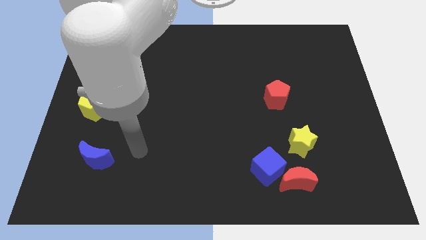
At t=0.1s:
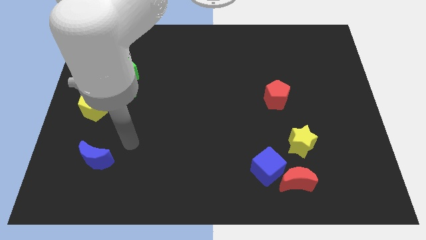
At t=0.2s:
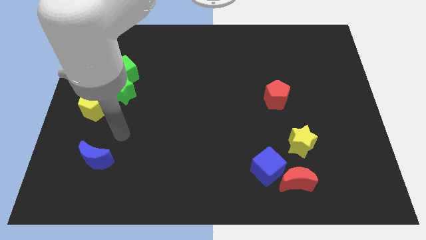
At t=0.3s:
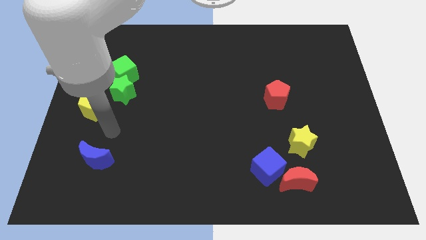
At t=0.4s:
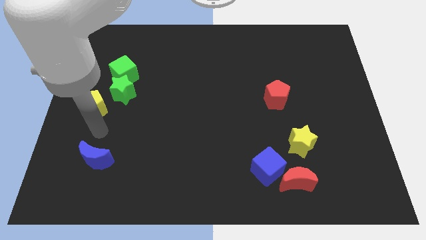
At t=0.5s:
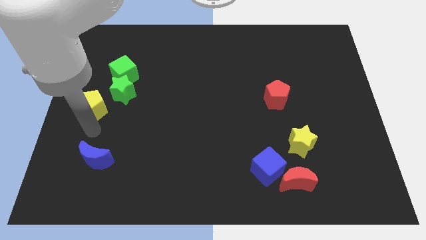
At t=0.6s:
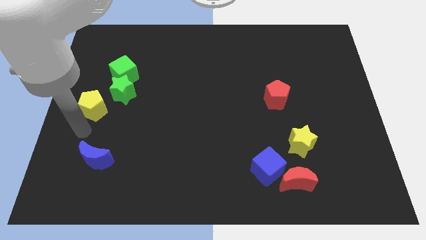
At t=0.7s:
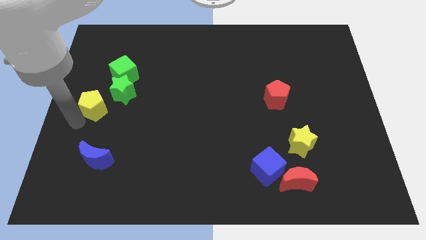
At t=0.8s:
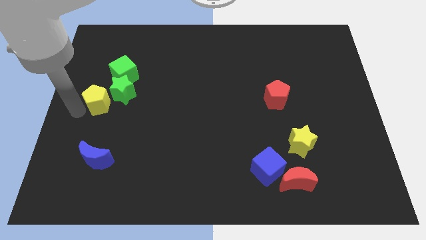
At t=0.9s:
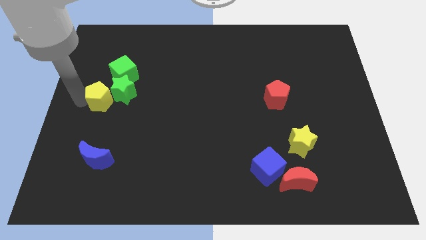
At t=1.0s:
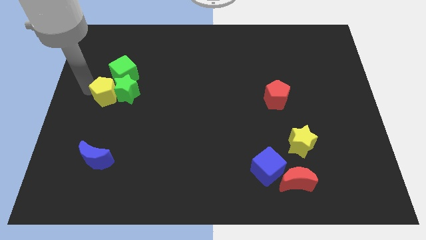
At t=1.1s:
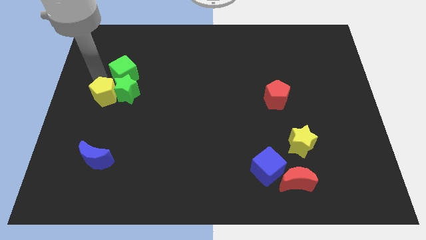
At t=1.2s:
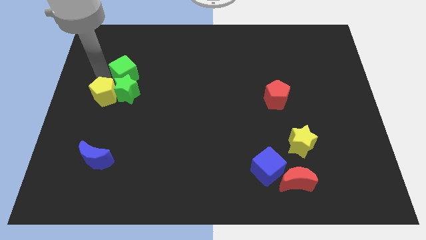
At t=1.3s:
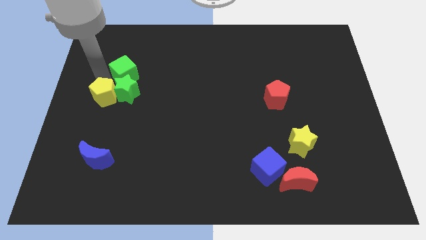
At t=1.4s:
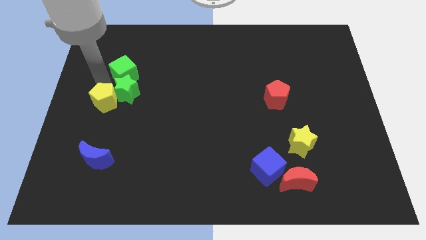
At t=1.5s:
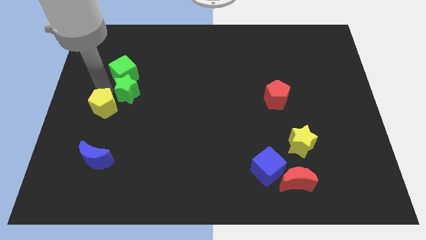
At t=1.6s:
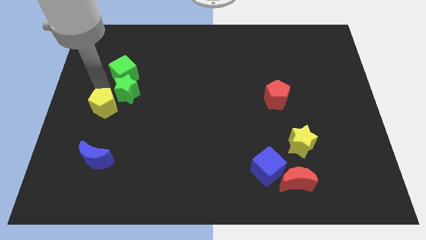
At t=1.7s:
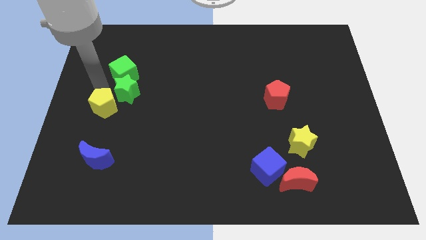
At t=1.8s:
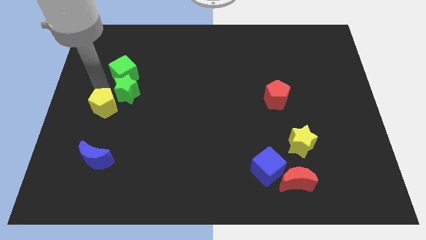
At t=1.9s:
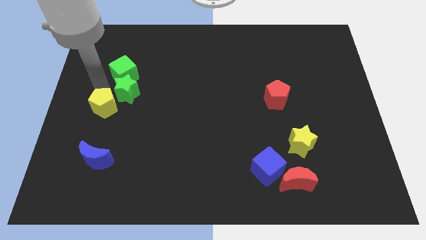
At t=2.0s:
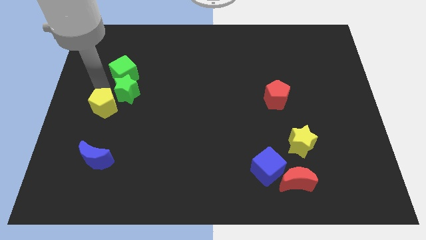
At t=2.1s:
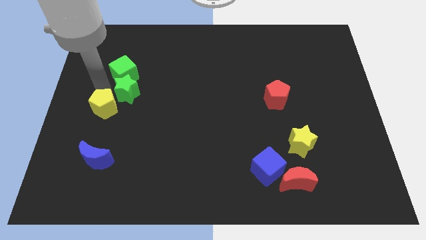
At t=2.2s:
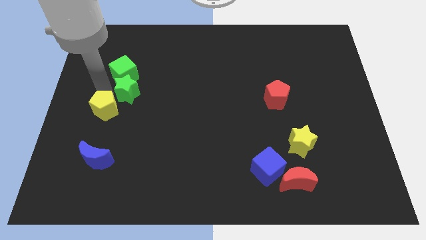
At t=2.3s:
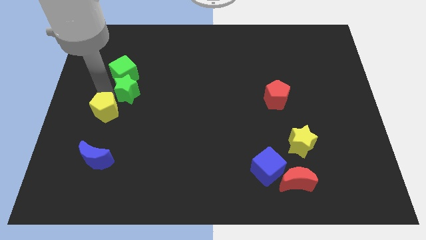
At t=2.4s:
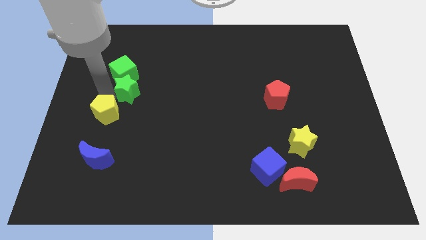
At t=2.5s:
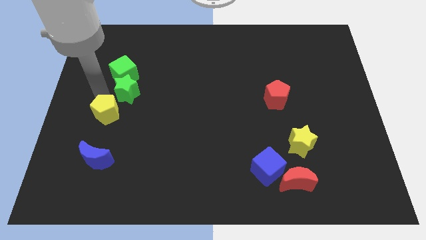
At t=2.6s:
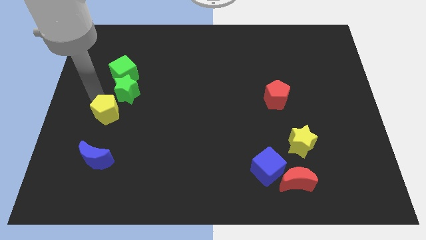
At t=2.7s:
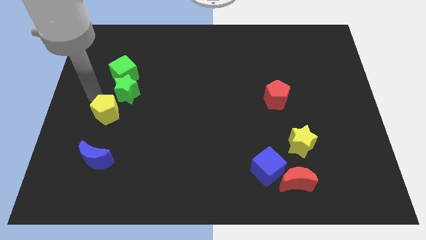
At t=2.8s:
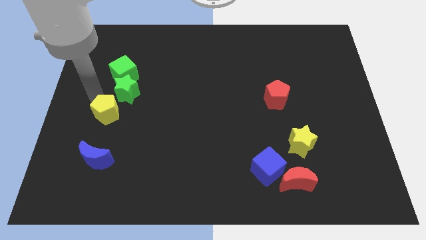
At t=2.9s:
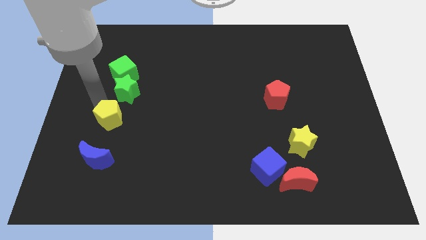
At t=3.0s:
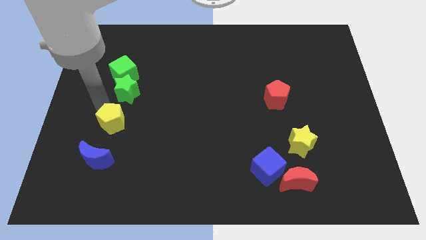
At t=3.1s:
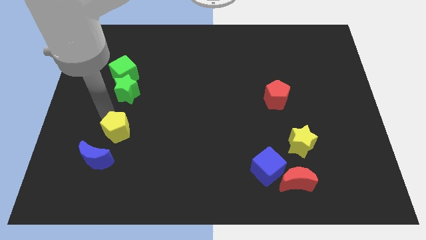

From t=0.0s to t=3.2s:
slide the yellow pentagon a bit downwards and then to the right

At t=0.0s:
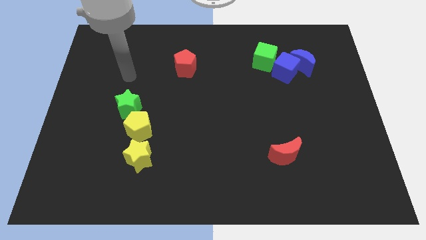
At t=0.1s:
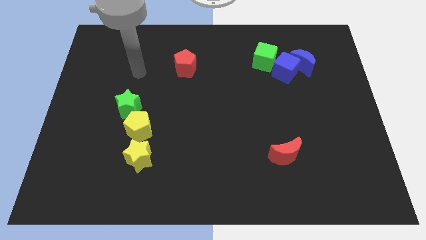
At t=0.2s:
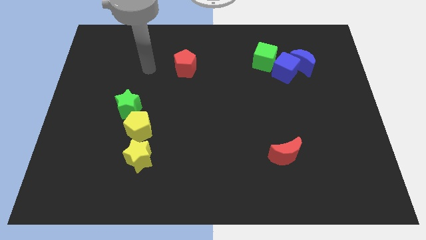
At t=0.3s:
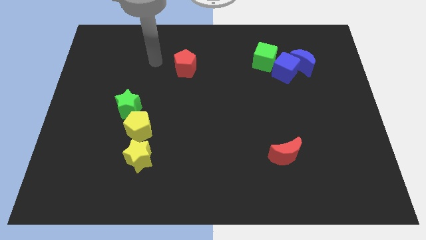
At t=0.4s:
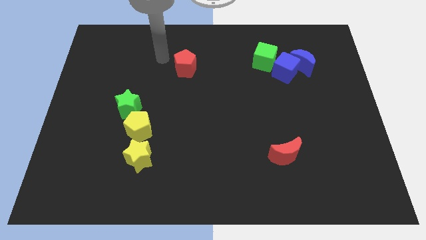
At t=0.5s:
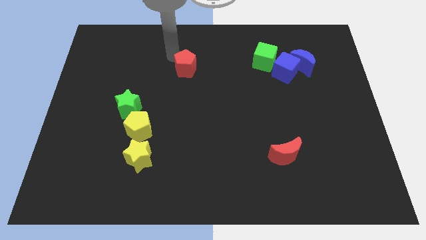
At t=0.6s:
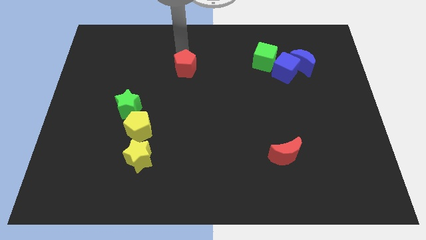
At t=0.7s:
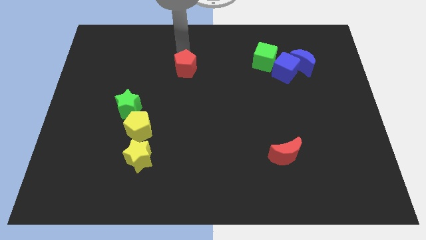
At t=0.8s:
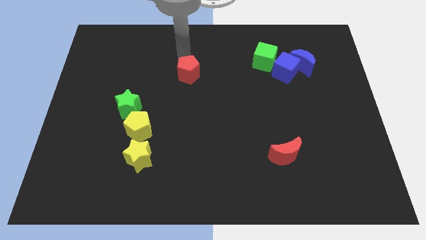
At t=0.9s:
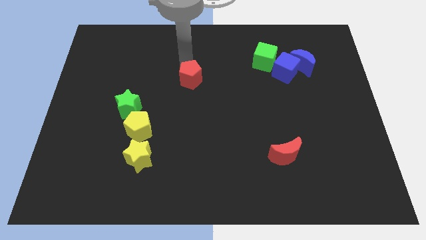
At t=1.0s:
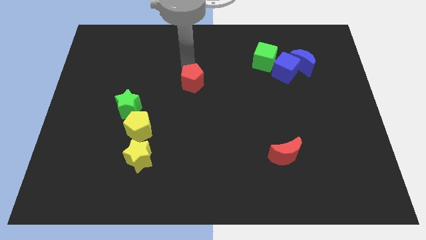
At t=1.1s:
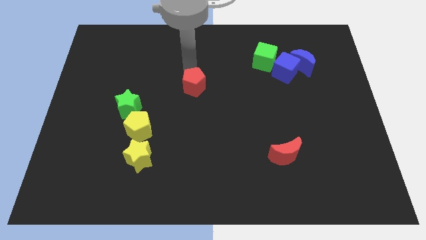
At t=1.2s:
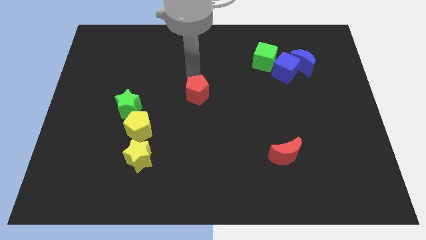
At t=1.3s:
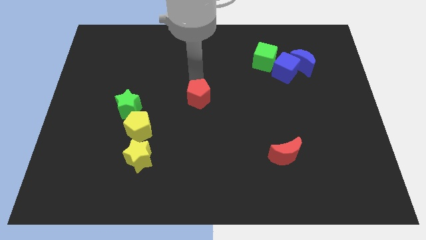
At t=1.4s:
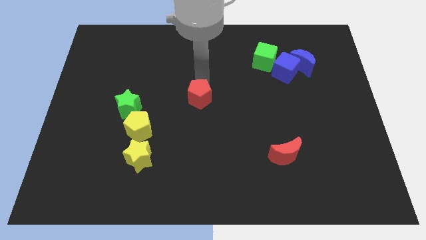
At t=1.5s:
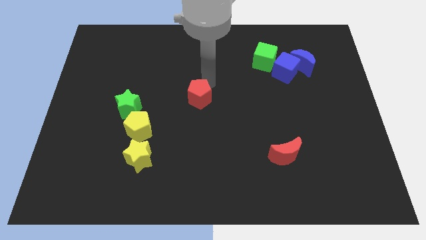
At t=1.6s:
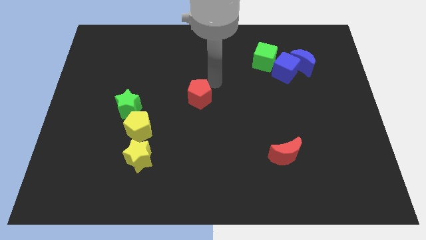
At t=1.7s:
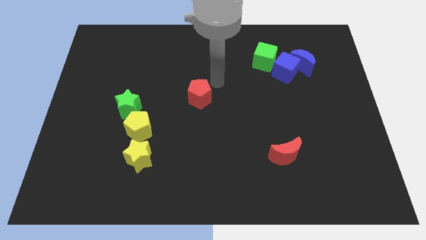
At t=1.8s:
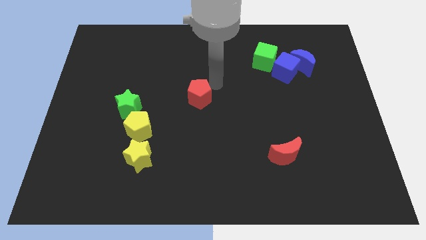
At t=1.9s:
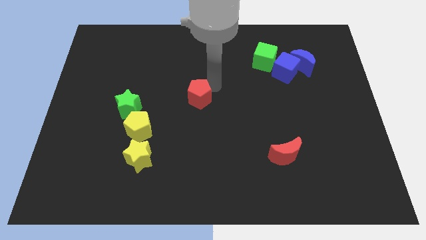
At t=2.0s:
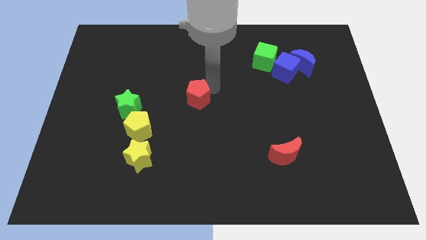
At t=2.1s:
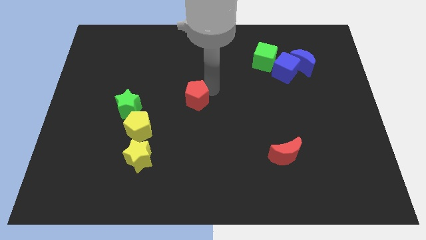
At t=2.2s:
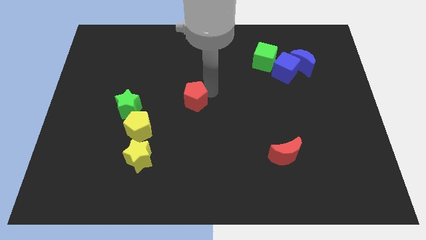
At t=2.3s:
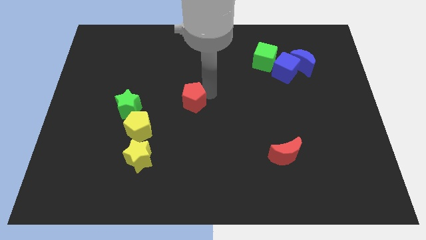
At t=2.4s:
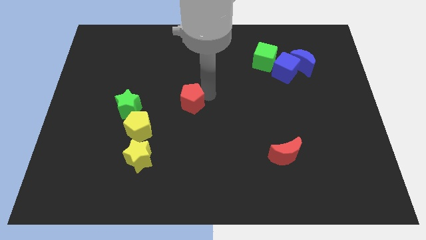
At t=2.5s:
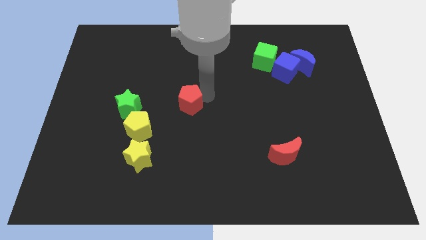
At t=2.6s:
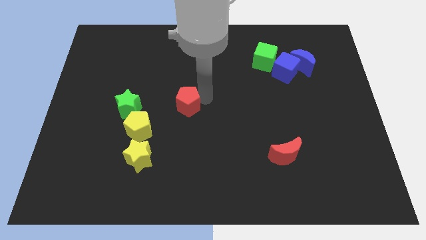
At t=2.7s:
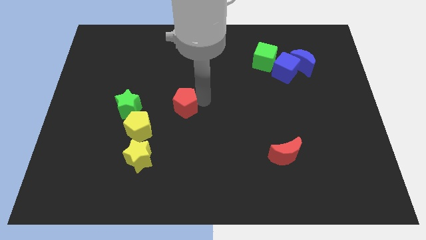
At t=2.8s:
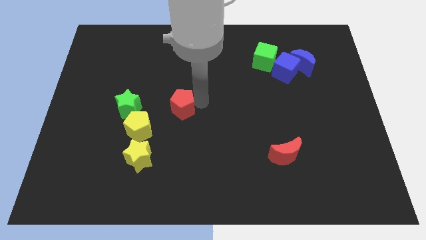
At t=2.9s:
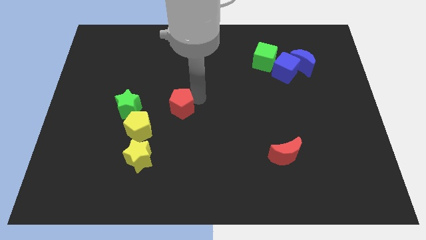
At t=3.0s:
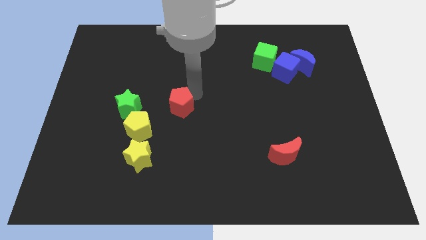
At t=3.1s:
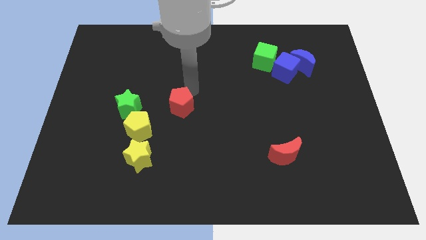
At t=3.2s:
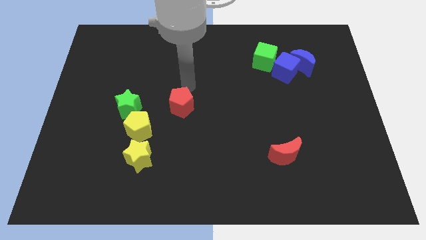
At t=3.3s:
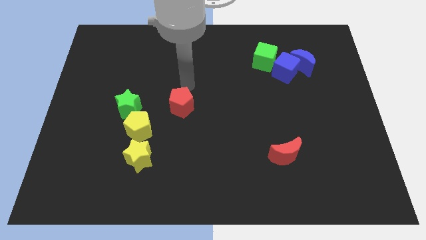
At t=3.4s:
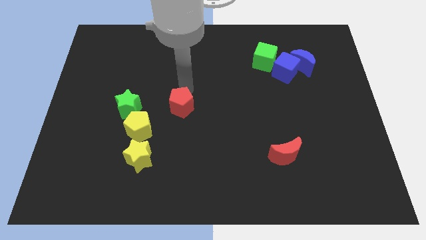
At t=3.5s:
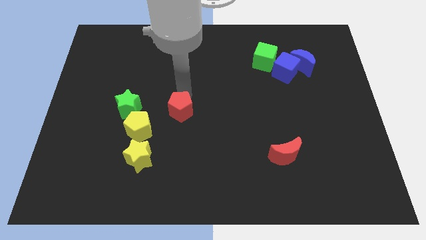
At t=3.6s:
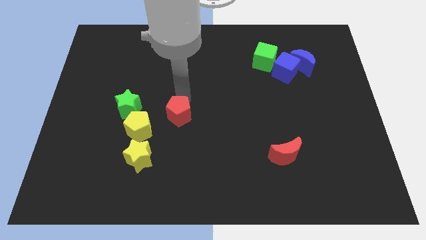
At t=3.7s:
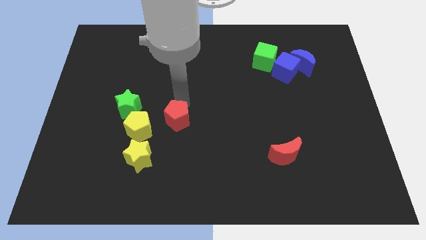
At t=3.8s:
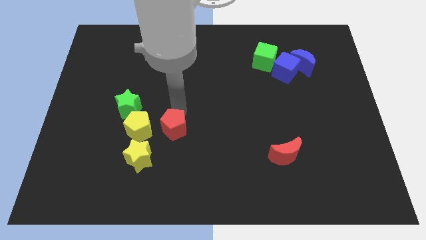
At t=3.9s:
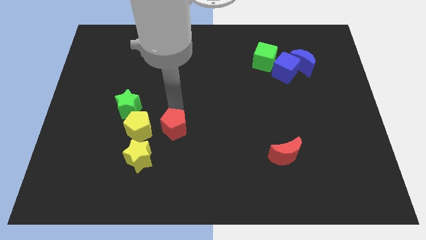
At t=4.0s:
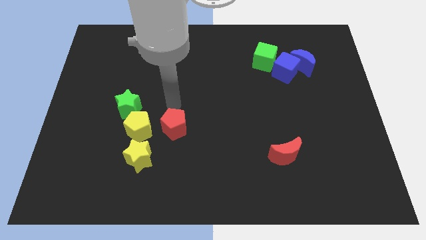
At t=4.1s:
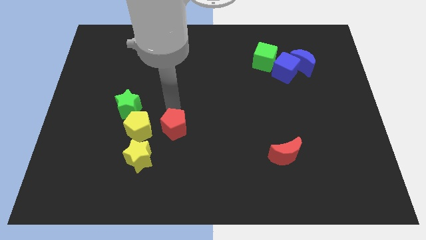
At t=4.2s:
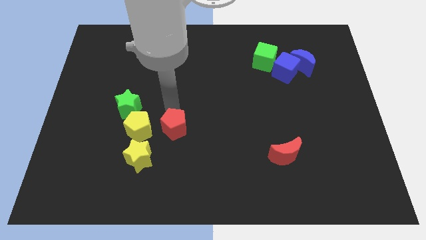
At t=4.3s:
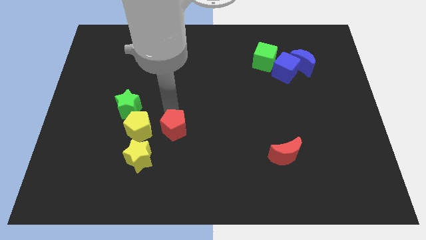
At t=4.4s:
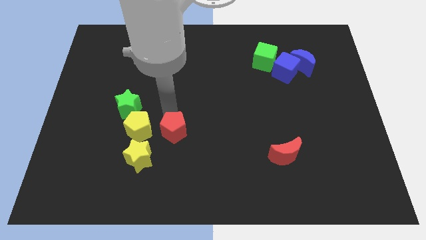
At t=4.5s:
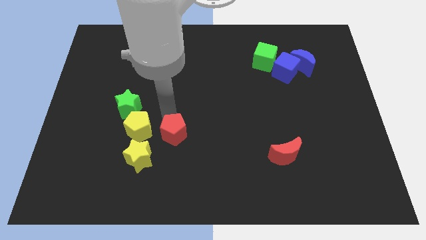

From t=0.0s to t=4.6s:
move the red pentagon down
